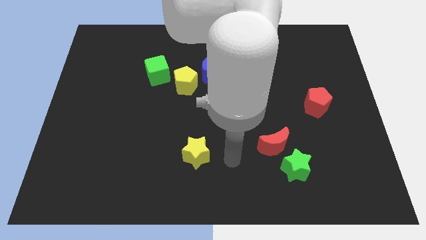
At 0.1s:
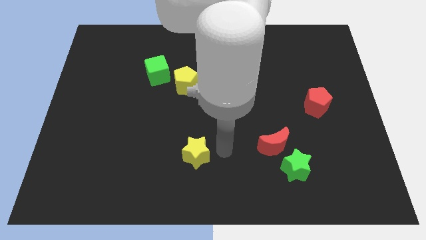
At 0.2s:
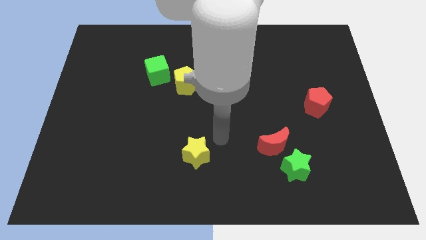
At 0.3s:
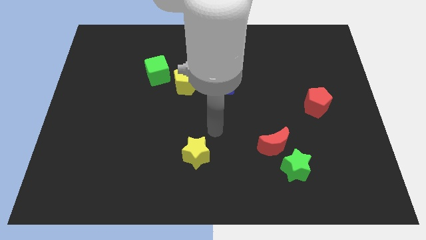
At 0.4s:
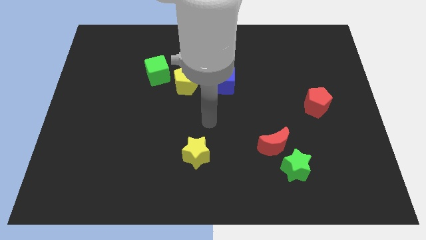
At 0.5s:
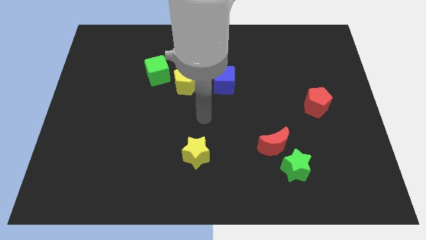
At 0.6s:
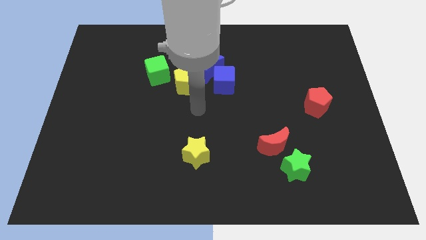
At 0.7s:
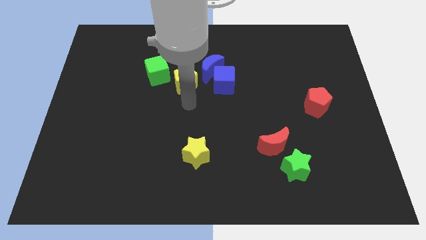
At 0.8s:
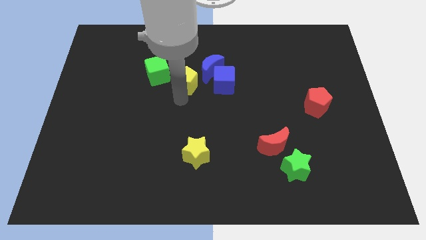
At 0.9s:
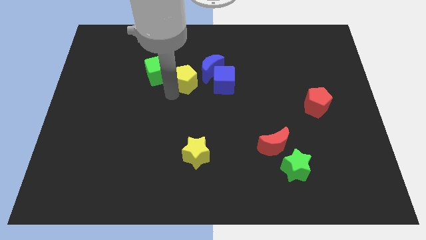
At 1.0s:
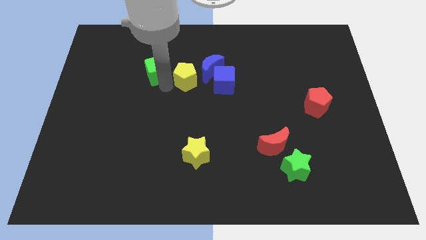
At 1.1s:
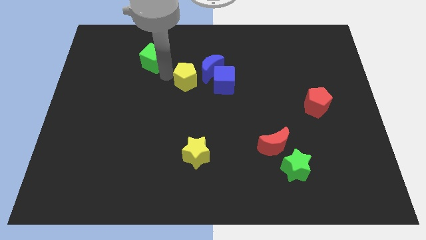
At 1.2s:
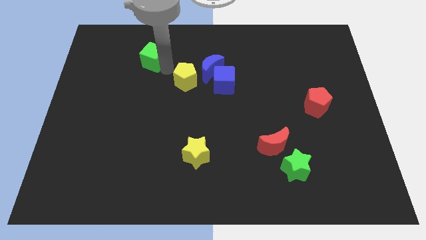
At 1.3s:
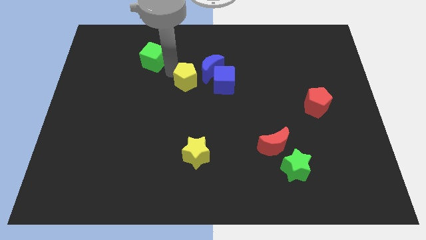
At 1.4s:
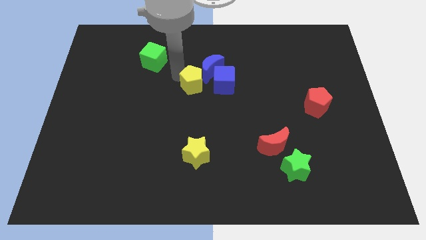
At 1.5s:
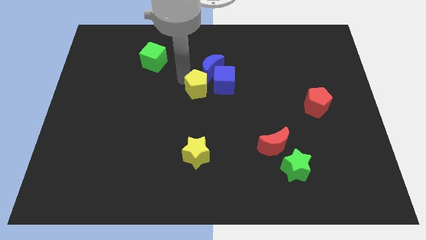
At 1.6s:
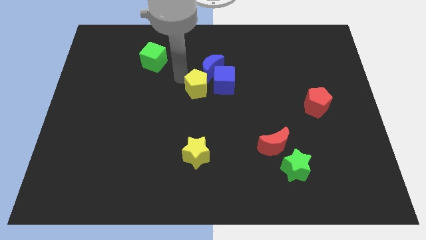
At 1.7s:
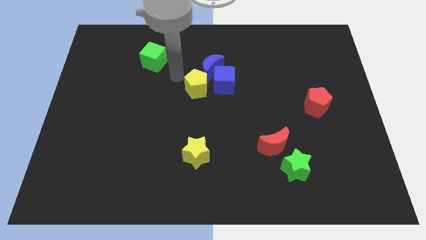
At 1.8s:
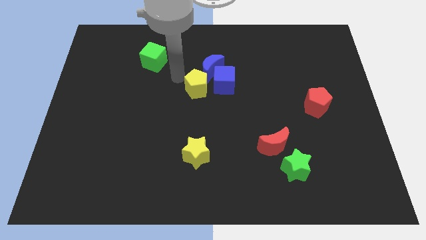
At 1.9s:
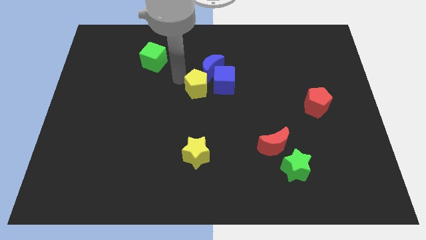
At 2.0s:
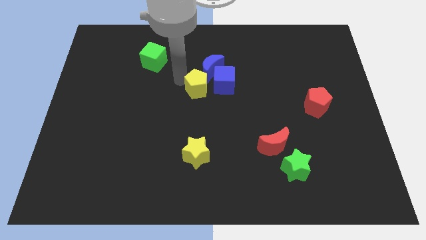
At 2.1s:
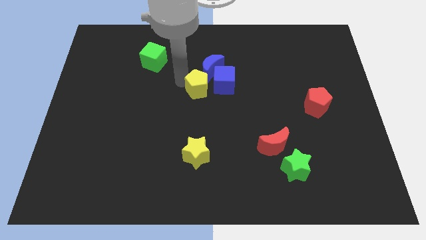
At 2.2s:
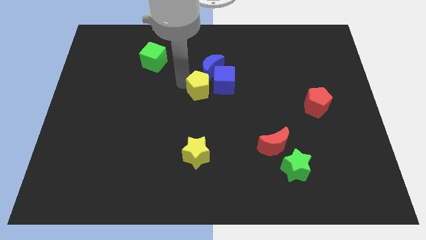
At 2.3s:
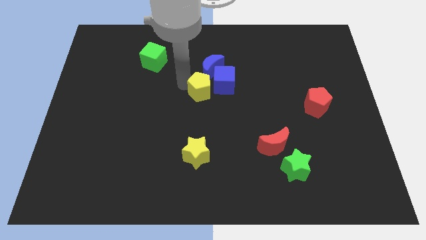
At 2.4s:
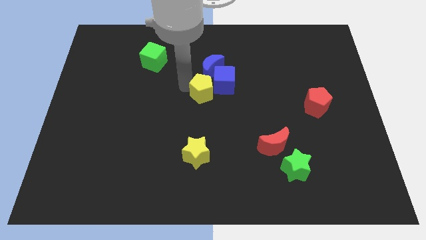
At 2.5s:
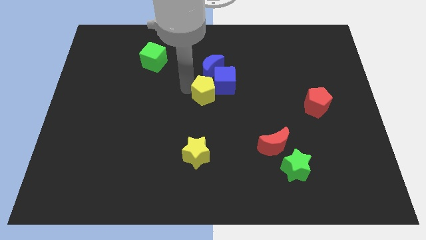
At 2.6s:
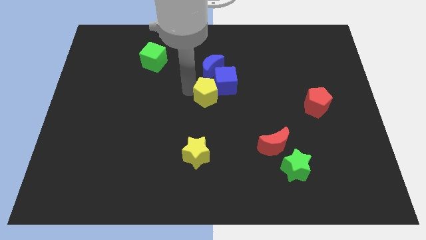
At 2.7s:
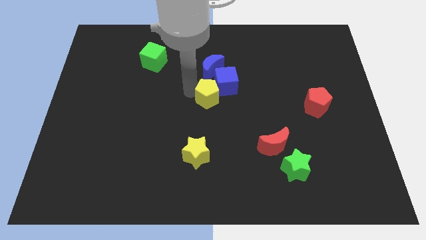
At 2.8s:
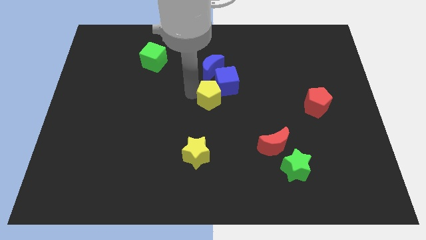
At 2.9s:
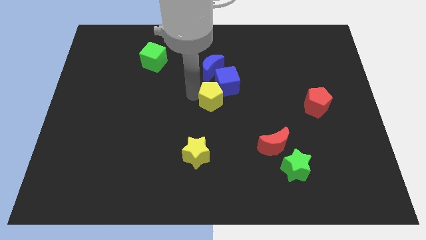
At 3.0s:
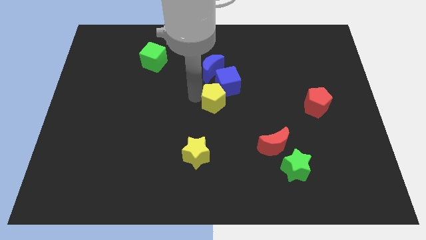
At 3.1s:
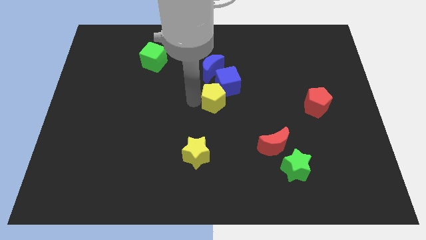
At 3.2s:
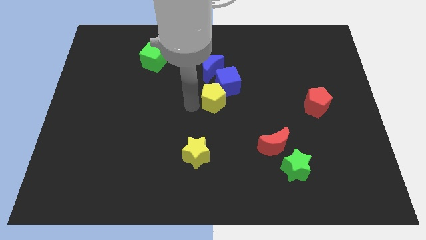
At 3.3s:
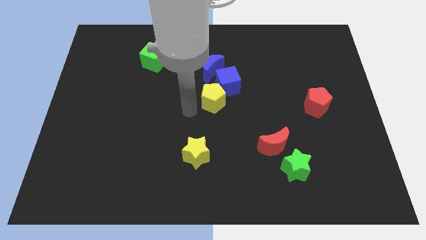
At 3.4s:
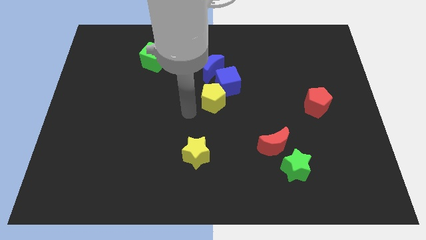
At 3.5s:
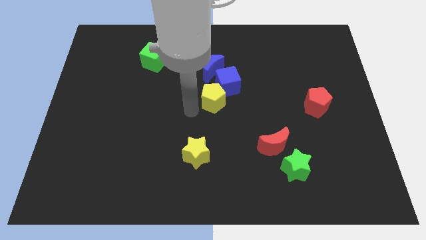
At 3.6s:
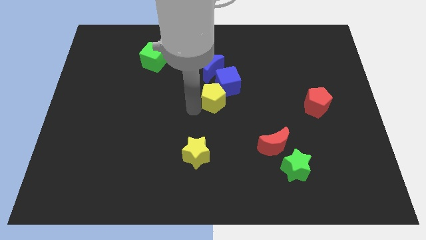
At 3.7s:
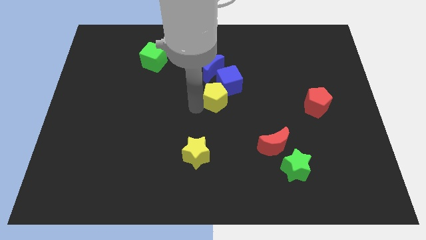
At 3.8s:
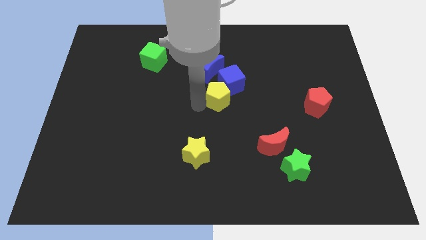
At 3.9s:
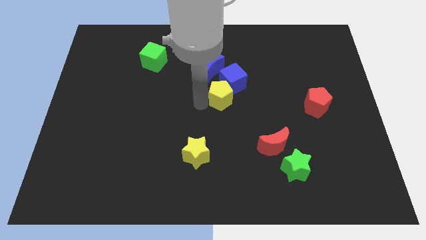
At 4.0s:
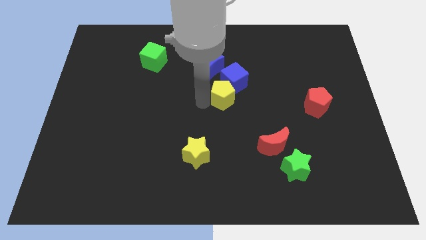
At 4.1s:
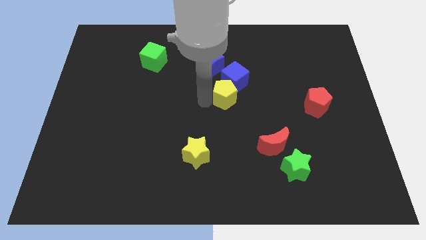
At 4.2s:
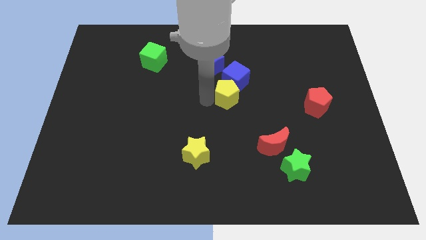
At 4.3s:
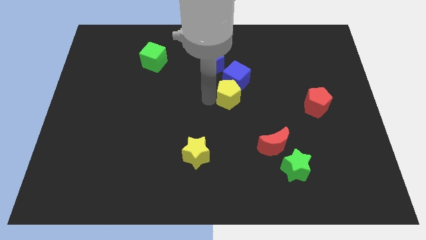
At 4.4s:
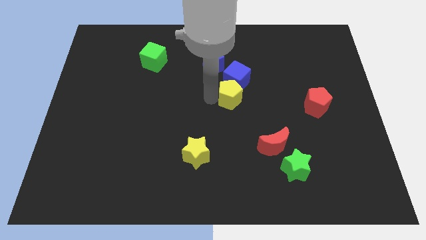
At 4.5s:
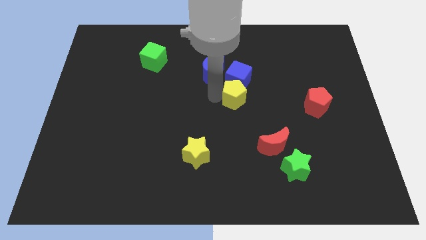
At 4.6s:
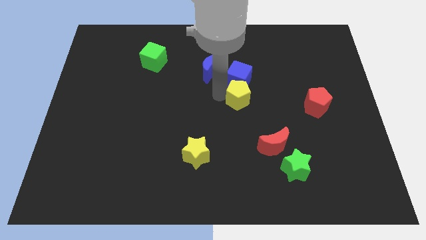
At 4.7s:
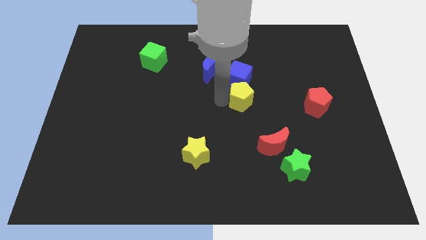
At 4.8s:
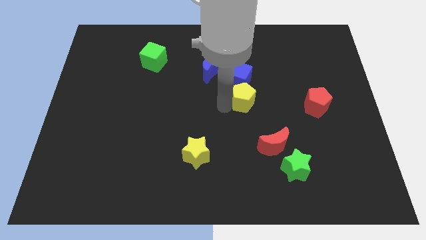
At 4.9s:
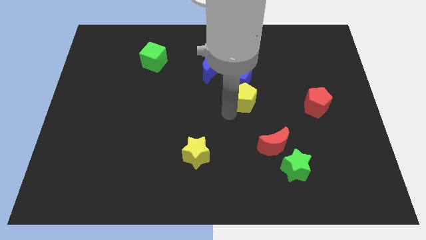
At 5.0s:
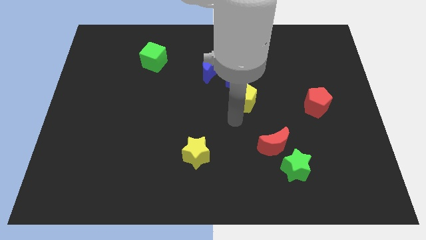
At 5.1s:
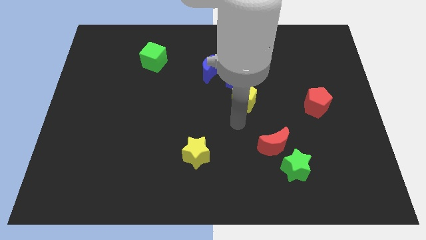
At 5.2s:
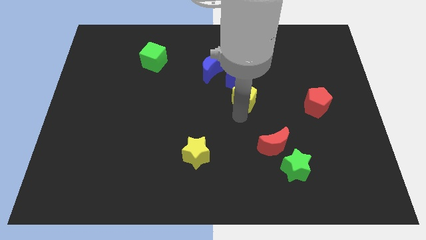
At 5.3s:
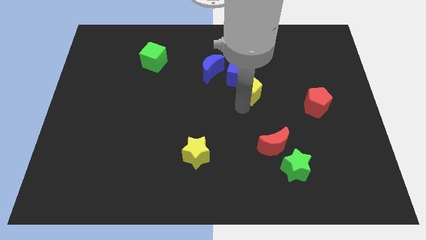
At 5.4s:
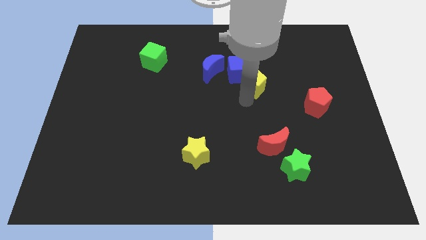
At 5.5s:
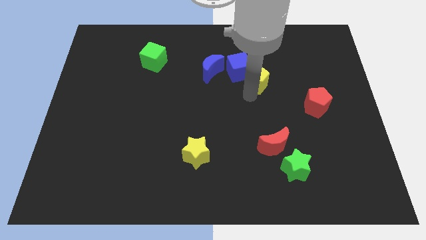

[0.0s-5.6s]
put the yellow pentagon to the right of the blue moon
